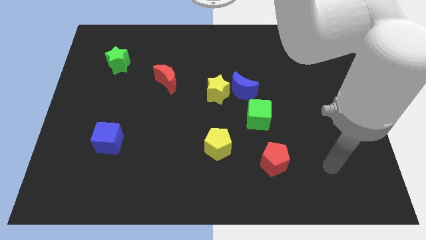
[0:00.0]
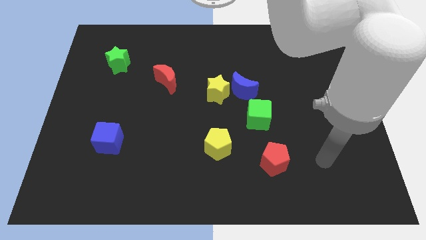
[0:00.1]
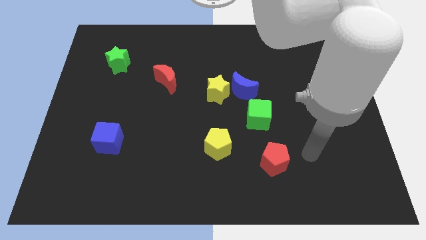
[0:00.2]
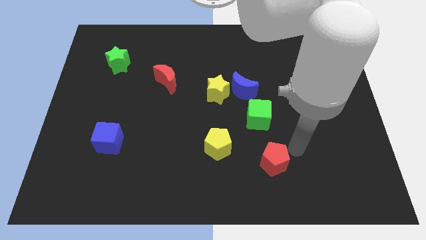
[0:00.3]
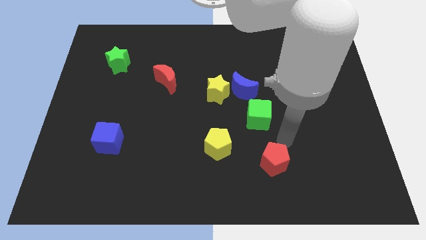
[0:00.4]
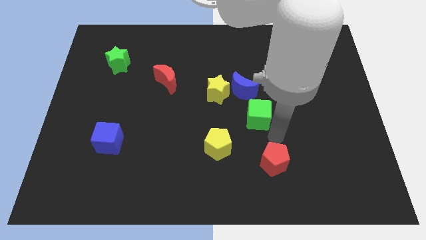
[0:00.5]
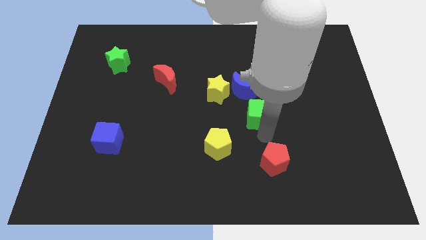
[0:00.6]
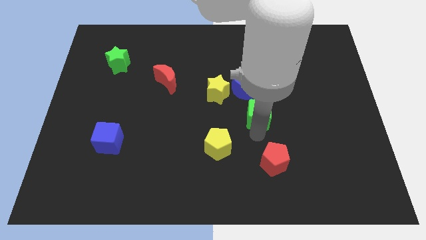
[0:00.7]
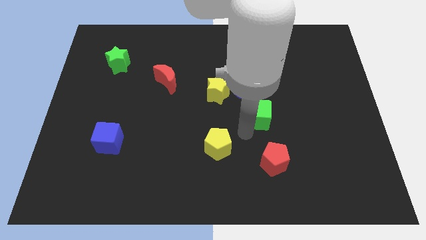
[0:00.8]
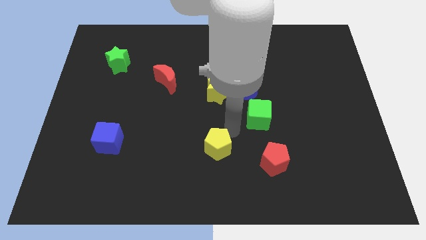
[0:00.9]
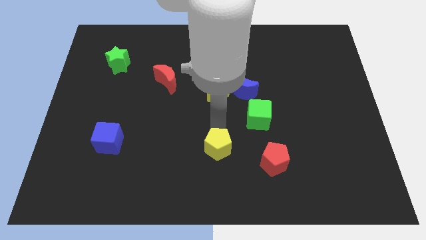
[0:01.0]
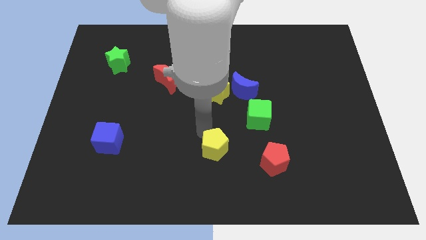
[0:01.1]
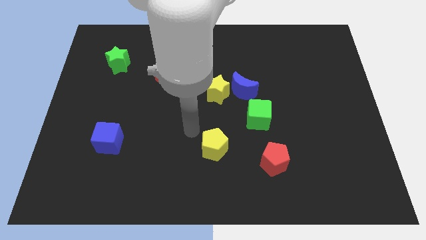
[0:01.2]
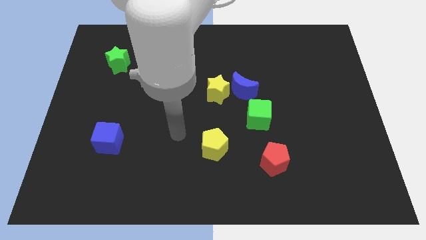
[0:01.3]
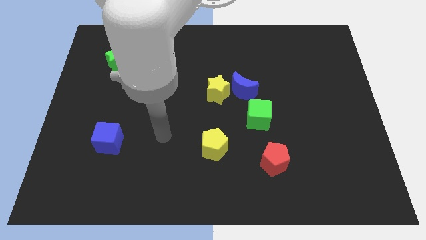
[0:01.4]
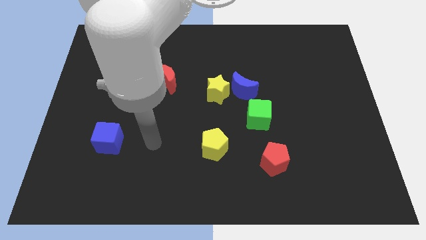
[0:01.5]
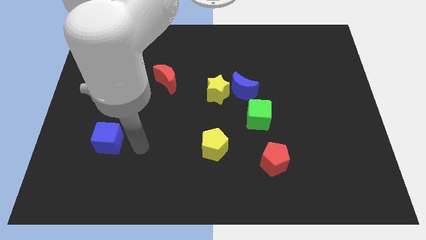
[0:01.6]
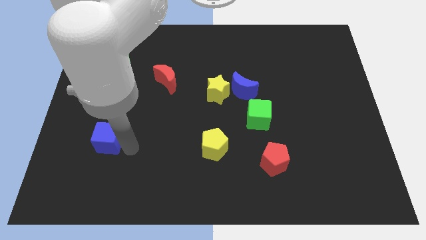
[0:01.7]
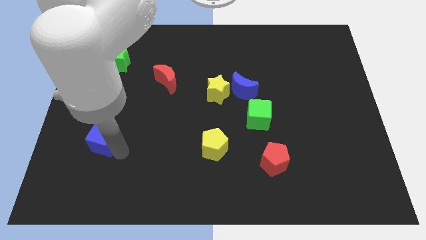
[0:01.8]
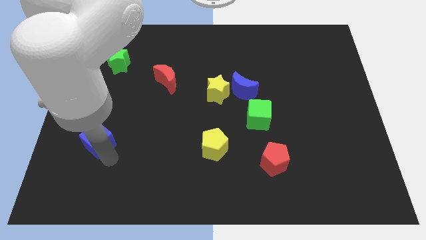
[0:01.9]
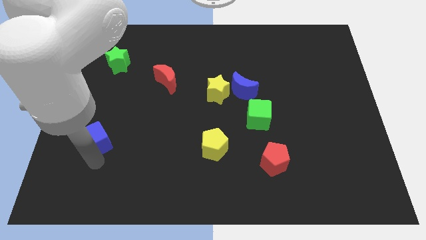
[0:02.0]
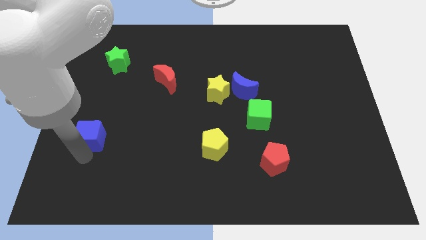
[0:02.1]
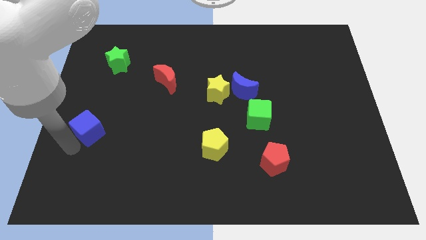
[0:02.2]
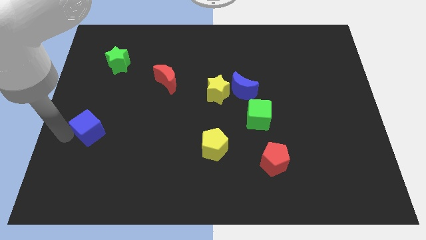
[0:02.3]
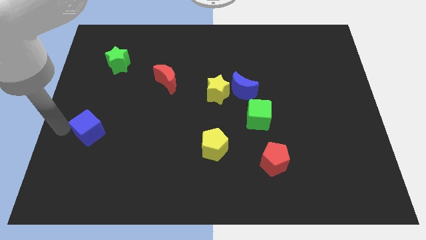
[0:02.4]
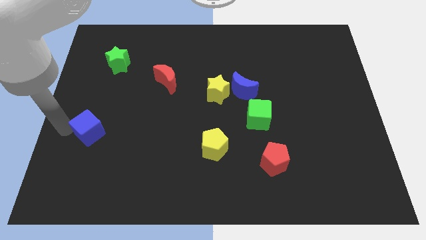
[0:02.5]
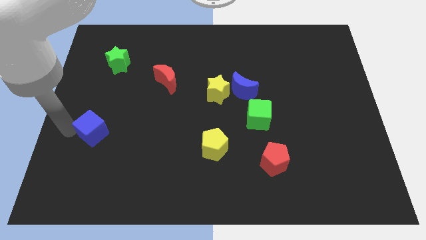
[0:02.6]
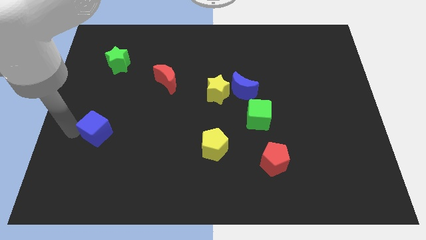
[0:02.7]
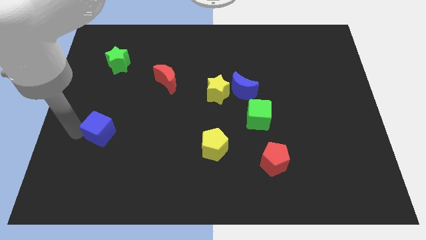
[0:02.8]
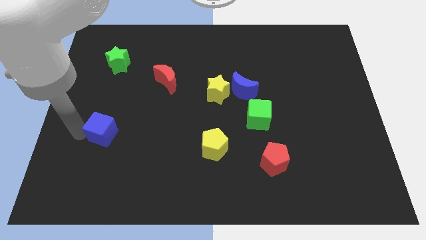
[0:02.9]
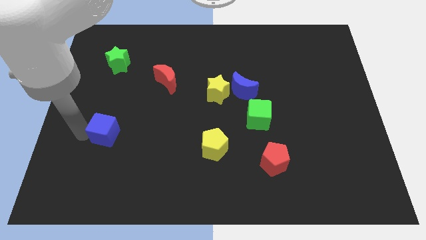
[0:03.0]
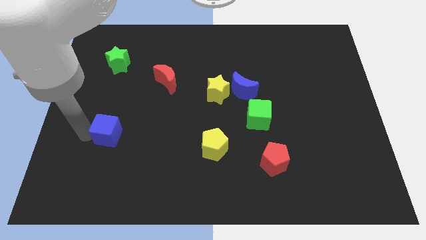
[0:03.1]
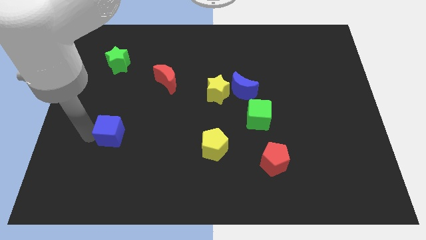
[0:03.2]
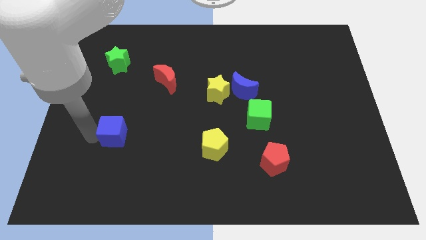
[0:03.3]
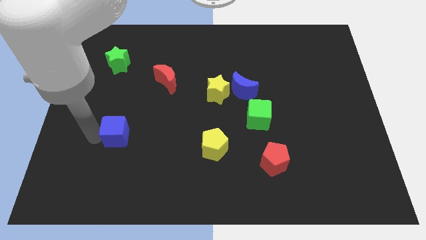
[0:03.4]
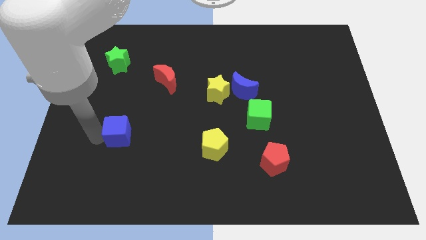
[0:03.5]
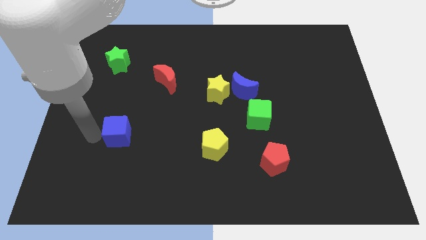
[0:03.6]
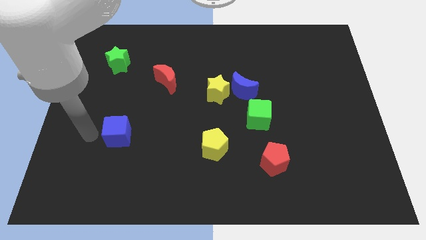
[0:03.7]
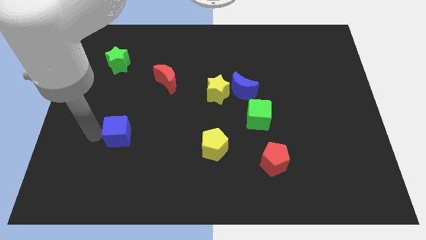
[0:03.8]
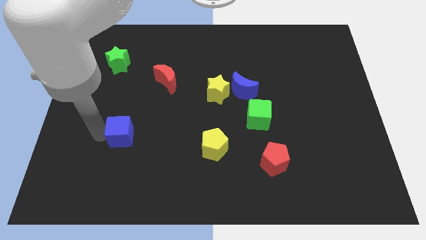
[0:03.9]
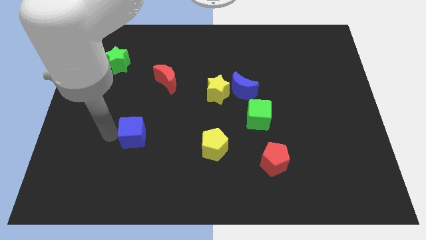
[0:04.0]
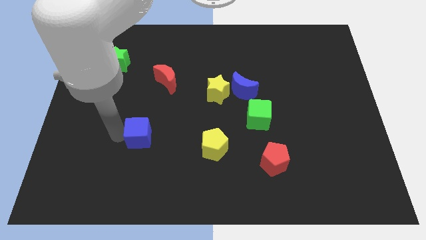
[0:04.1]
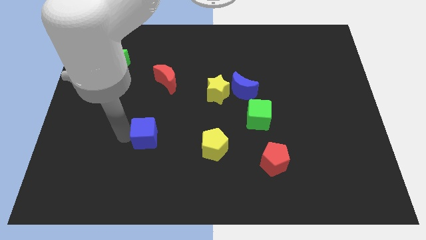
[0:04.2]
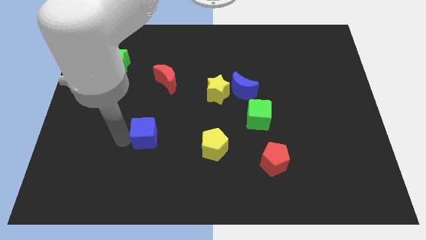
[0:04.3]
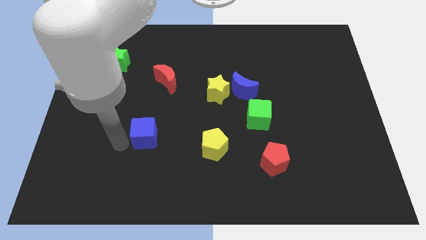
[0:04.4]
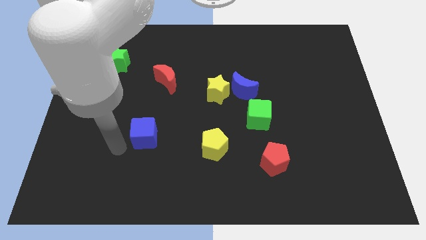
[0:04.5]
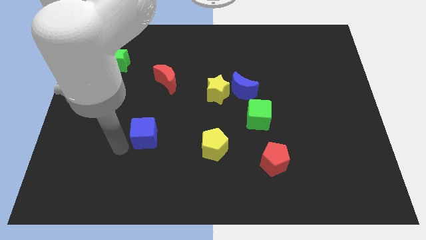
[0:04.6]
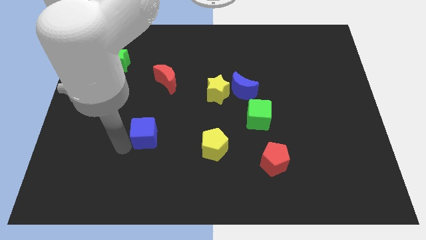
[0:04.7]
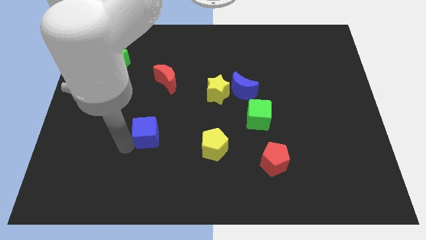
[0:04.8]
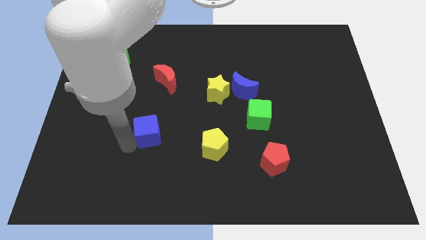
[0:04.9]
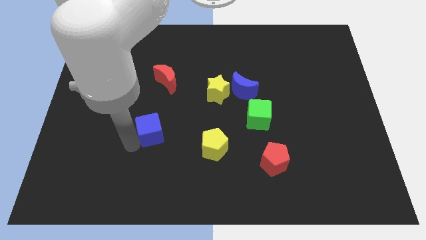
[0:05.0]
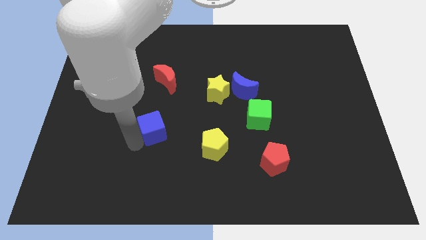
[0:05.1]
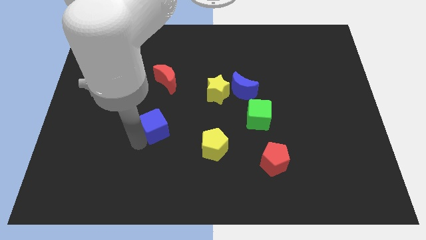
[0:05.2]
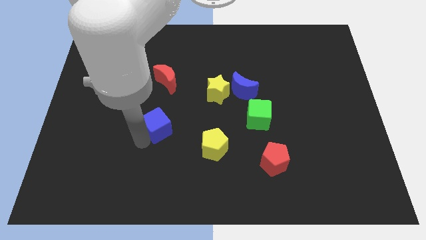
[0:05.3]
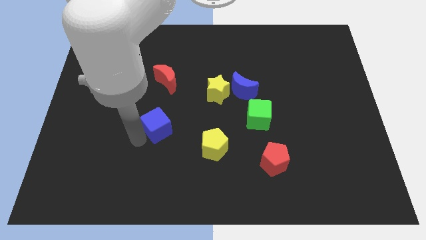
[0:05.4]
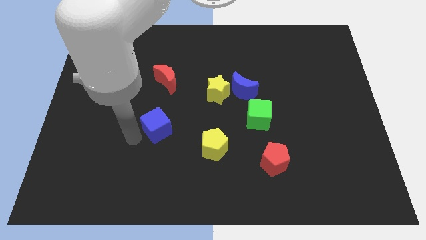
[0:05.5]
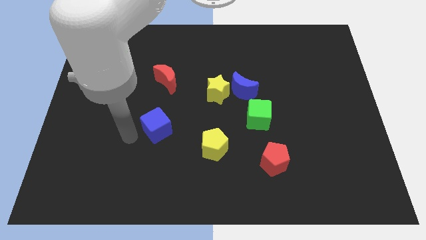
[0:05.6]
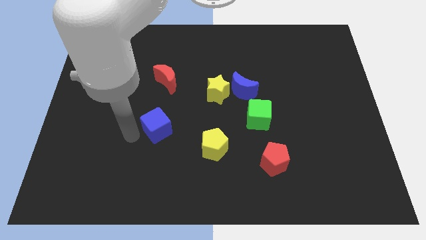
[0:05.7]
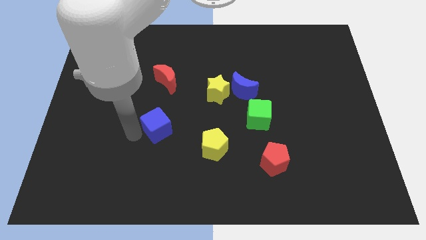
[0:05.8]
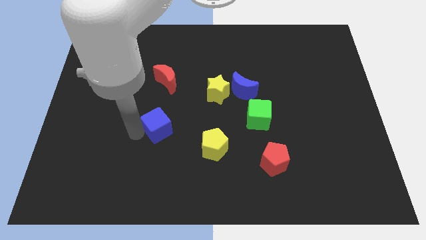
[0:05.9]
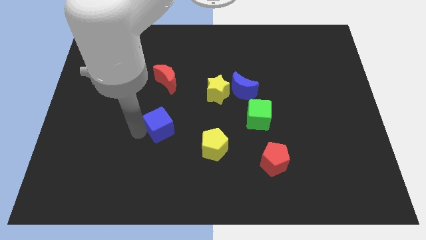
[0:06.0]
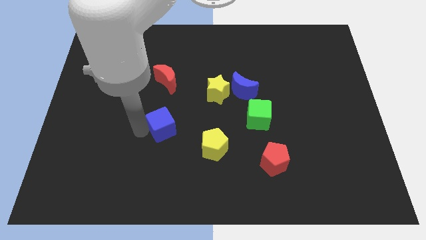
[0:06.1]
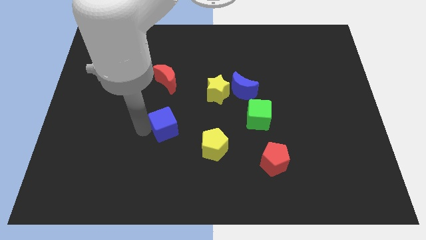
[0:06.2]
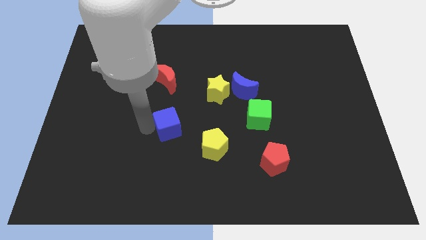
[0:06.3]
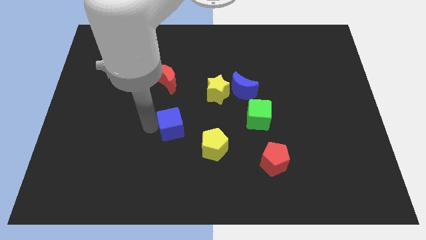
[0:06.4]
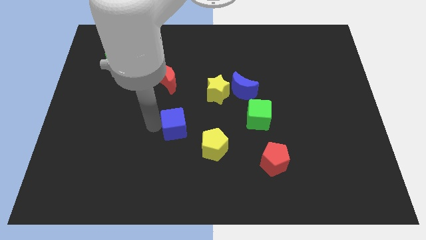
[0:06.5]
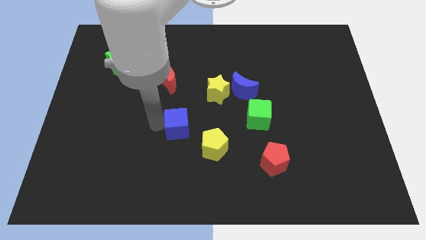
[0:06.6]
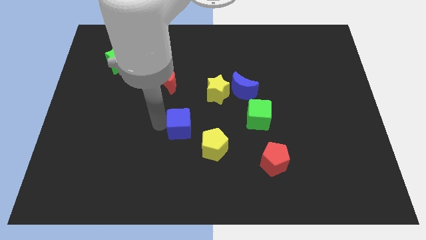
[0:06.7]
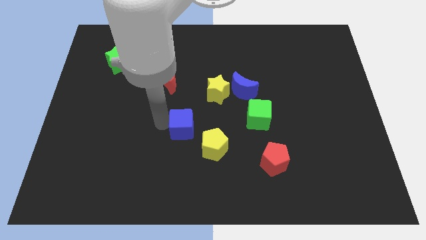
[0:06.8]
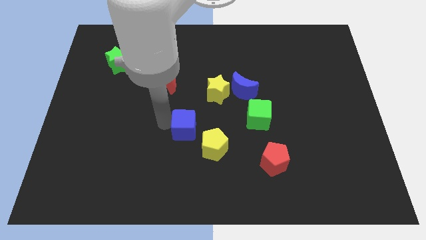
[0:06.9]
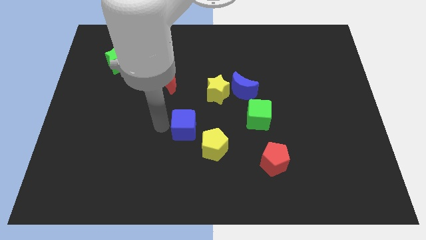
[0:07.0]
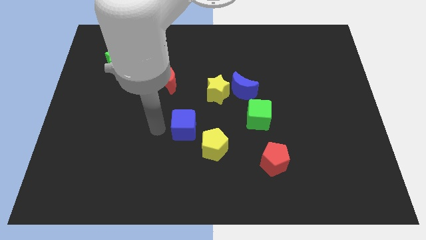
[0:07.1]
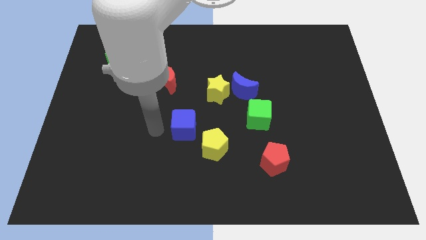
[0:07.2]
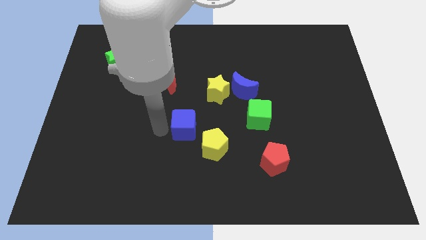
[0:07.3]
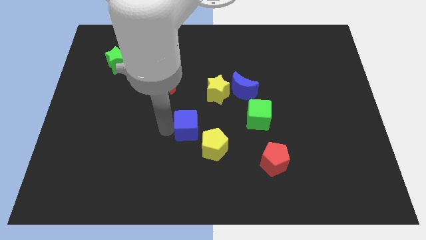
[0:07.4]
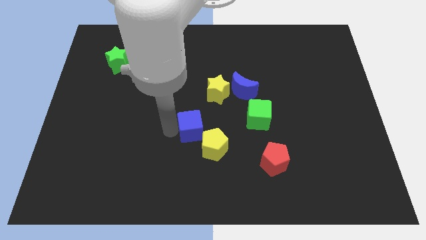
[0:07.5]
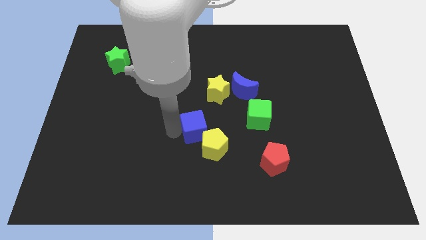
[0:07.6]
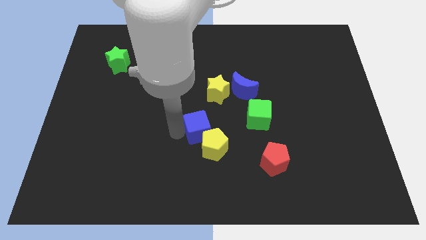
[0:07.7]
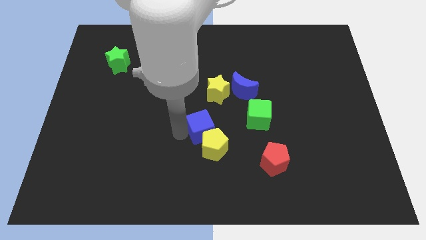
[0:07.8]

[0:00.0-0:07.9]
push the blue cube to the right

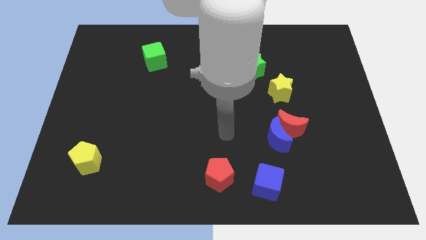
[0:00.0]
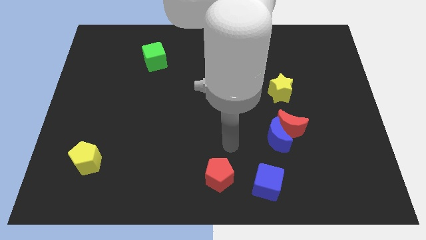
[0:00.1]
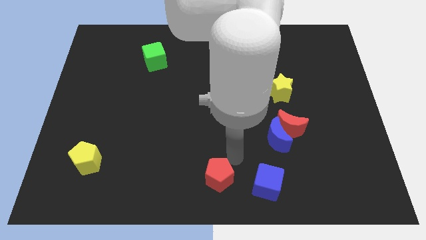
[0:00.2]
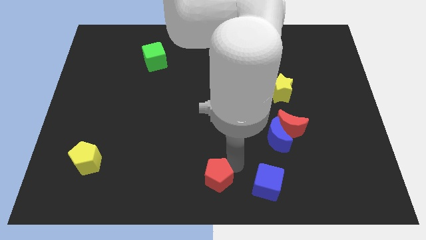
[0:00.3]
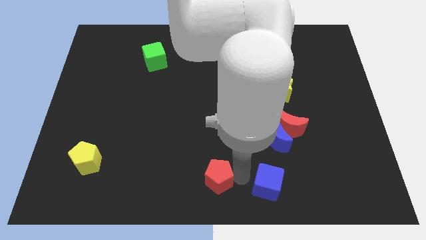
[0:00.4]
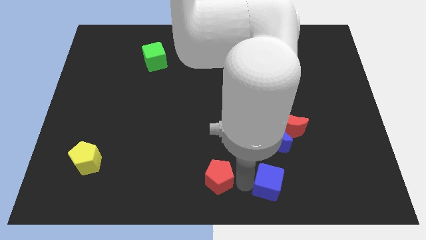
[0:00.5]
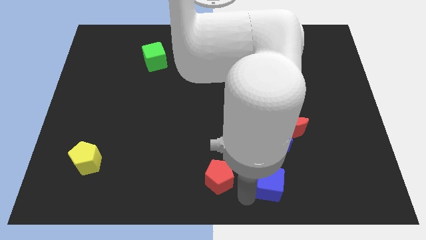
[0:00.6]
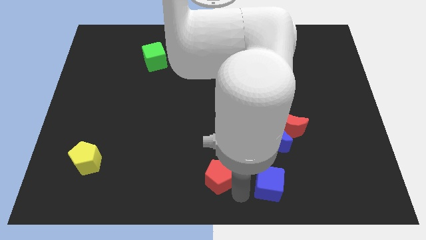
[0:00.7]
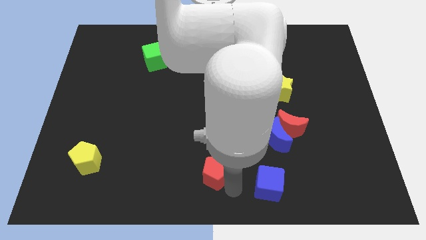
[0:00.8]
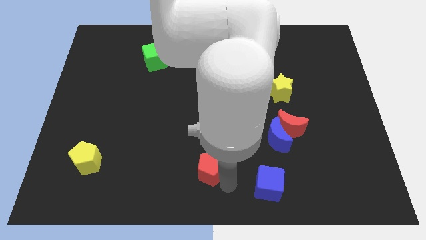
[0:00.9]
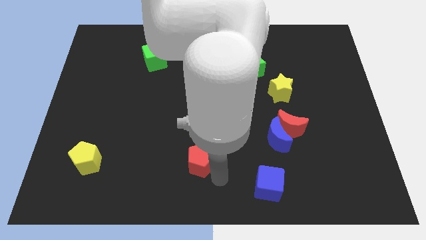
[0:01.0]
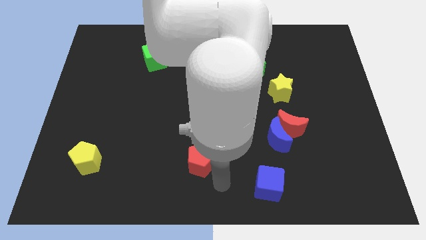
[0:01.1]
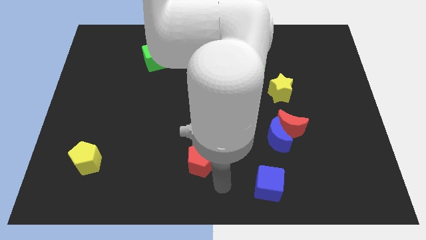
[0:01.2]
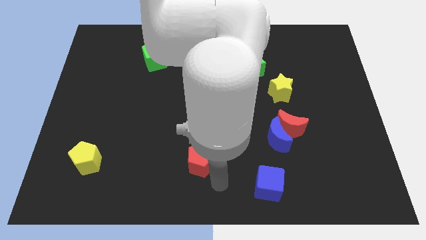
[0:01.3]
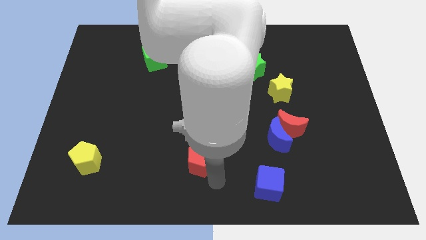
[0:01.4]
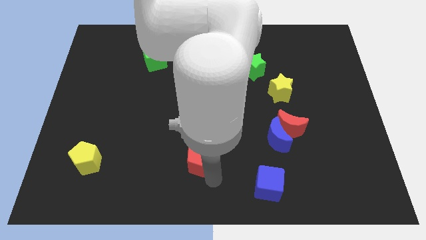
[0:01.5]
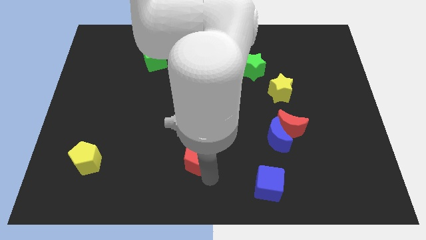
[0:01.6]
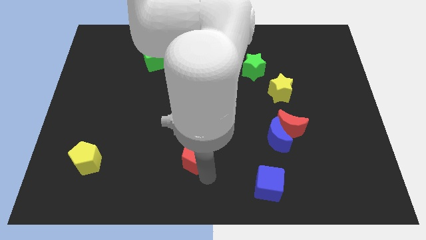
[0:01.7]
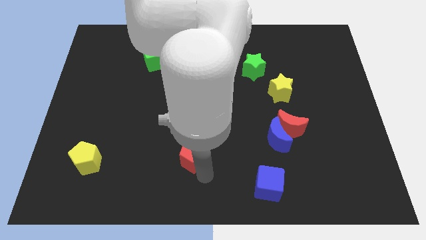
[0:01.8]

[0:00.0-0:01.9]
slide the red pentagon diagonally upwards and to the left a little
